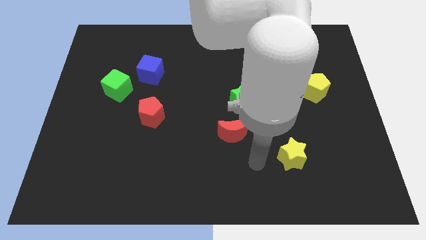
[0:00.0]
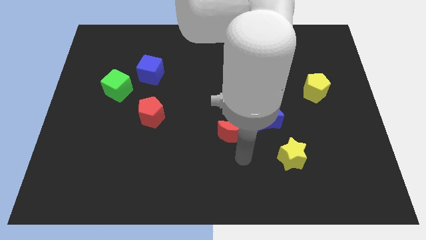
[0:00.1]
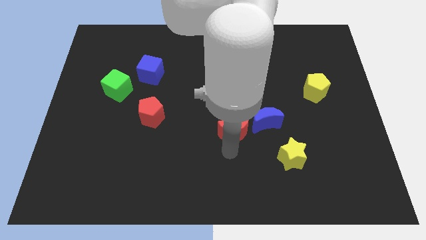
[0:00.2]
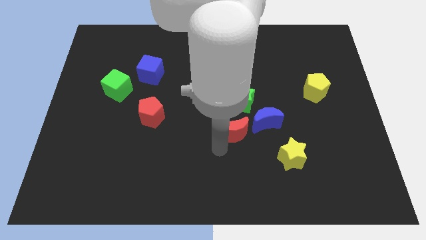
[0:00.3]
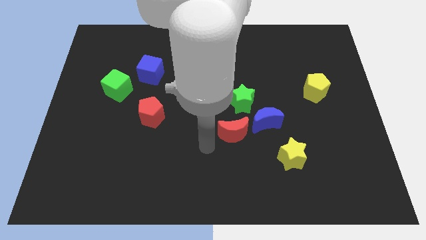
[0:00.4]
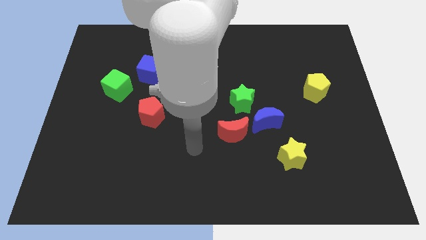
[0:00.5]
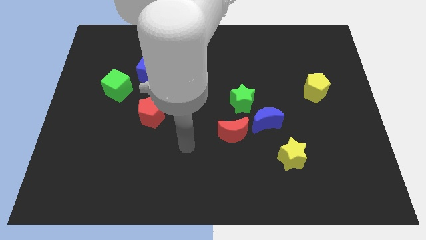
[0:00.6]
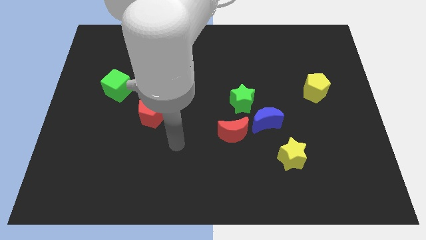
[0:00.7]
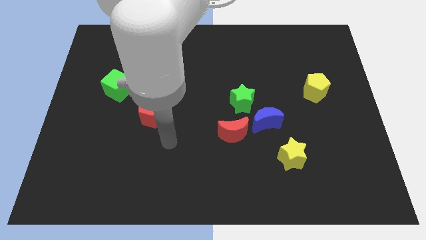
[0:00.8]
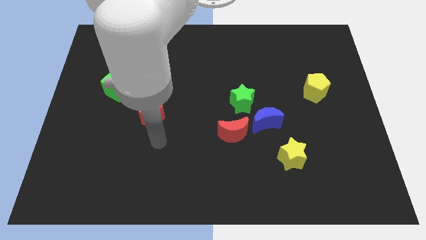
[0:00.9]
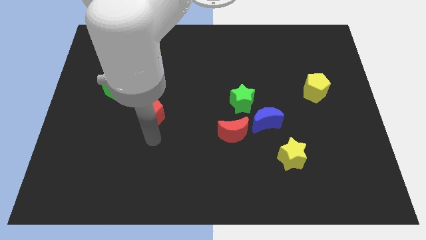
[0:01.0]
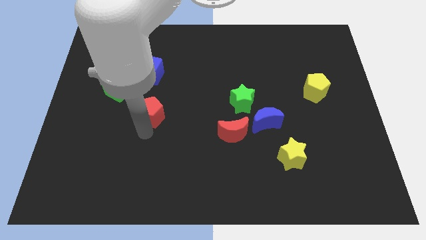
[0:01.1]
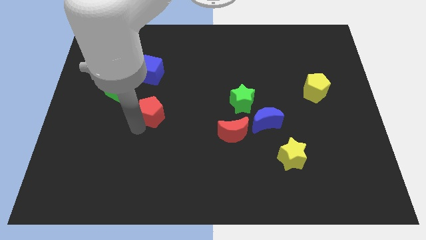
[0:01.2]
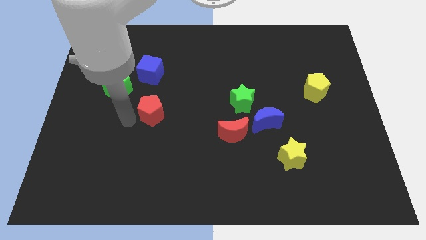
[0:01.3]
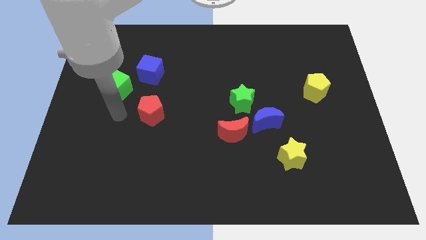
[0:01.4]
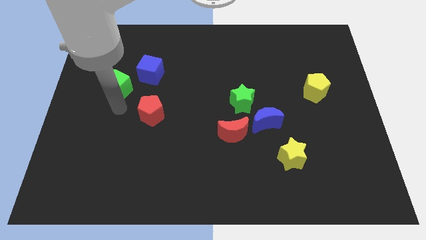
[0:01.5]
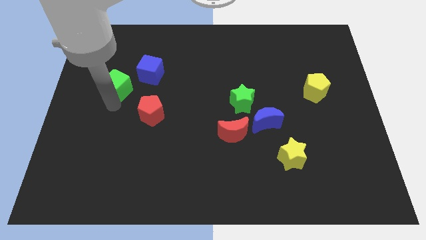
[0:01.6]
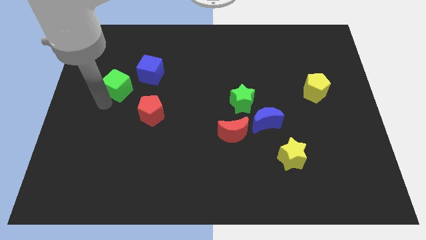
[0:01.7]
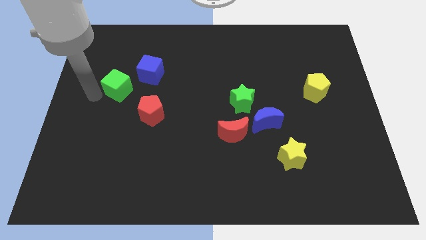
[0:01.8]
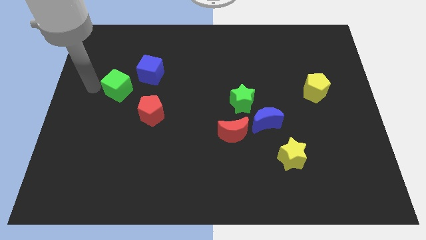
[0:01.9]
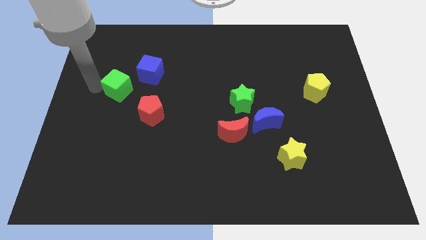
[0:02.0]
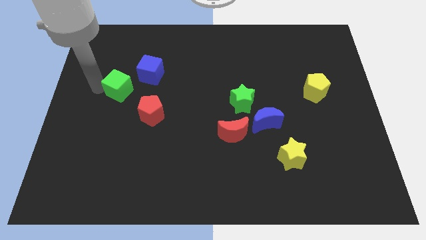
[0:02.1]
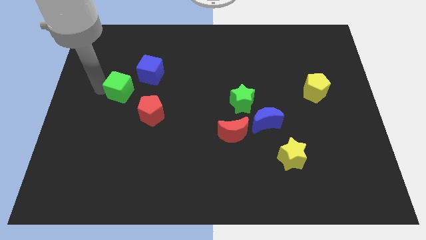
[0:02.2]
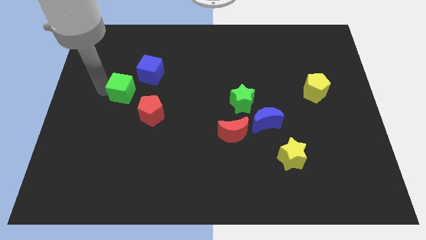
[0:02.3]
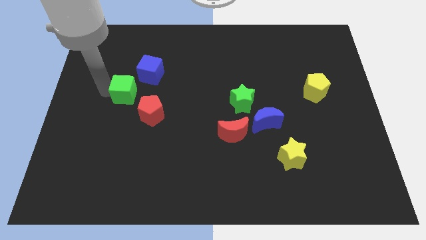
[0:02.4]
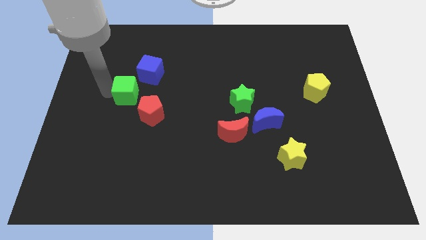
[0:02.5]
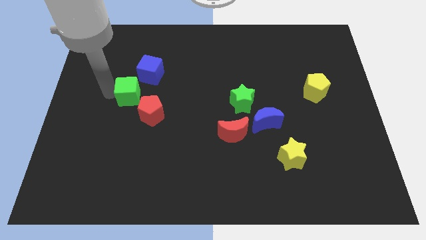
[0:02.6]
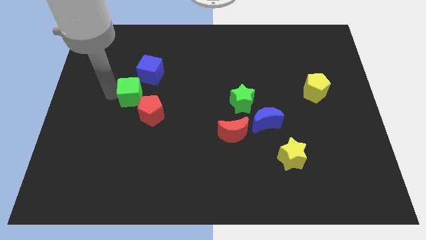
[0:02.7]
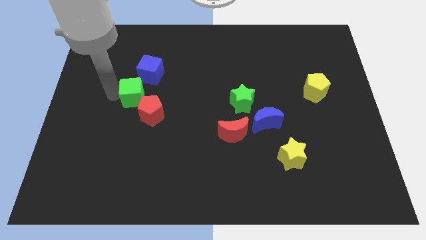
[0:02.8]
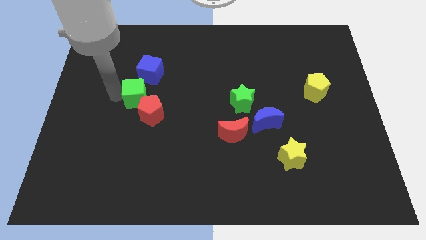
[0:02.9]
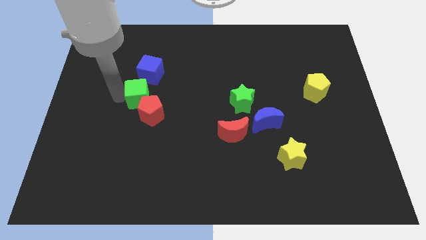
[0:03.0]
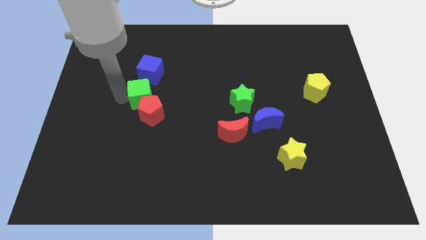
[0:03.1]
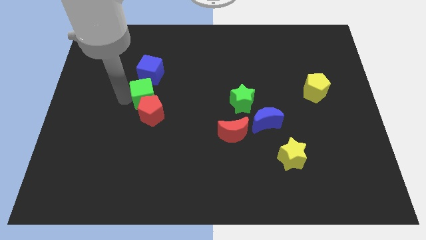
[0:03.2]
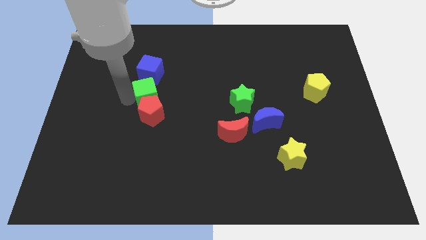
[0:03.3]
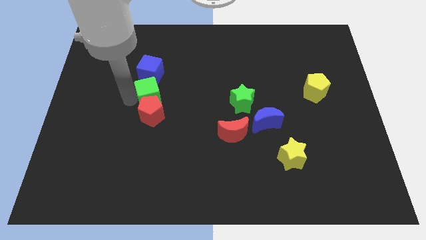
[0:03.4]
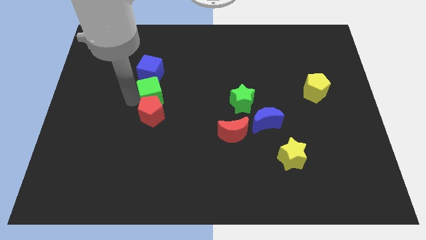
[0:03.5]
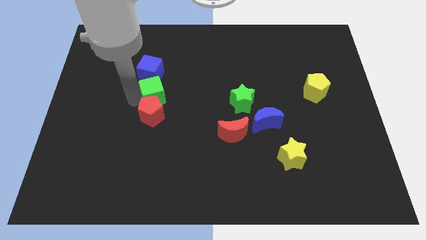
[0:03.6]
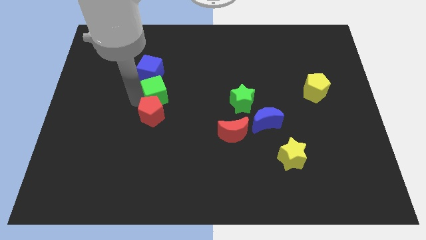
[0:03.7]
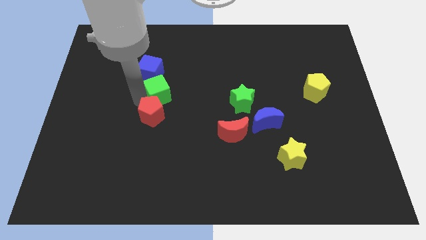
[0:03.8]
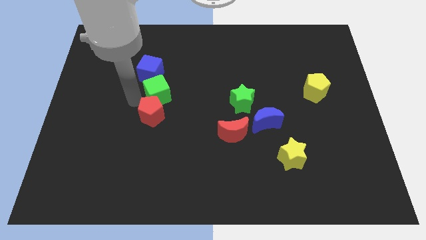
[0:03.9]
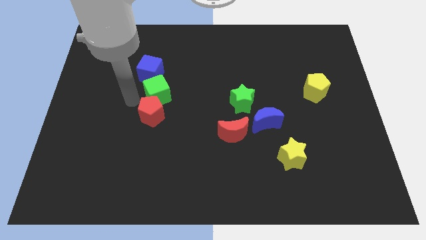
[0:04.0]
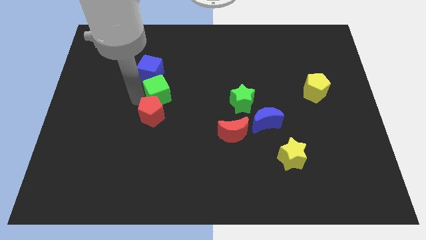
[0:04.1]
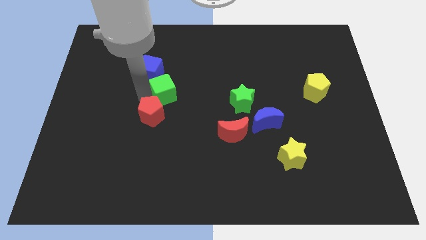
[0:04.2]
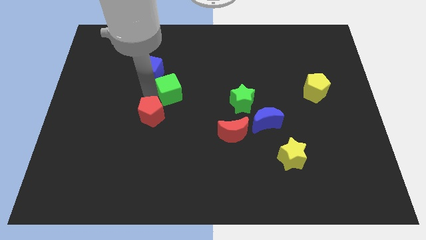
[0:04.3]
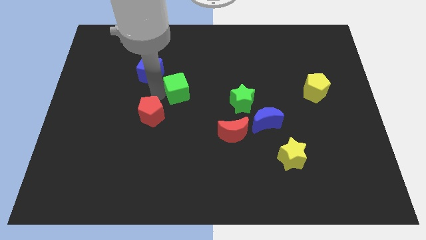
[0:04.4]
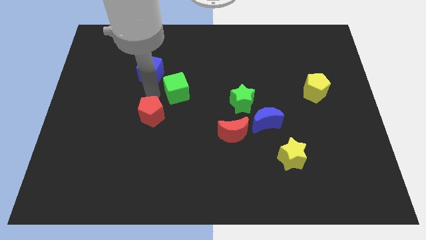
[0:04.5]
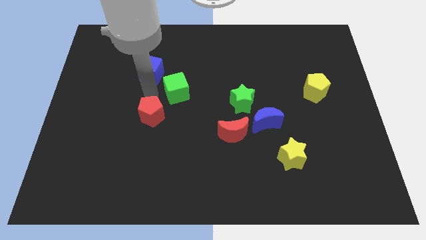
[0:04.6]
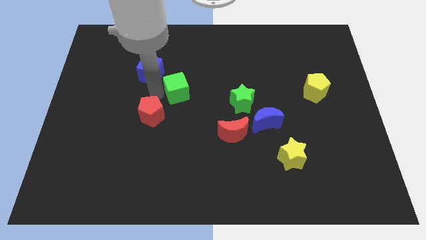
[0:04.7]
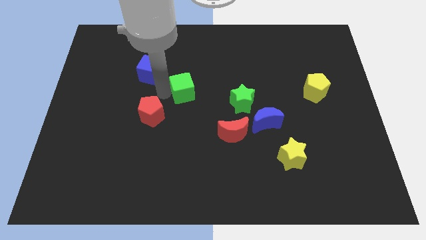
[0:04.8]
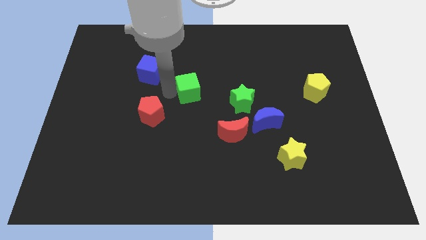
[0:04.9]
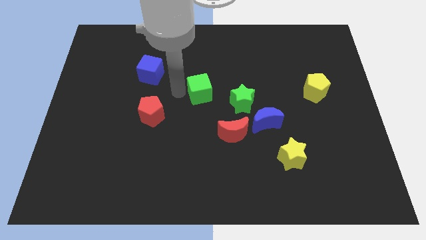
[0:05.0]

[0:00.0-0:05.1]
move the green cube right

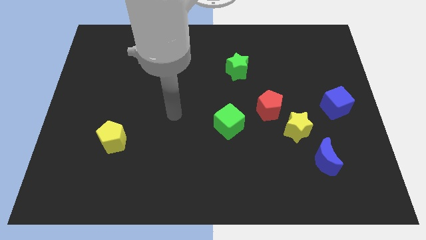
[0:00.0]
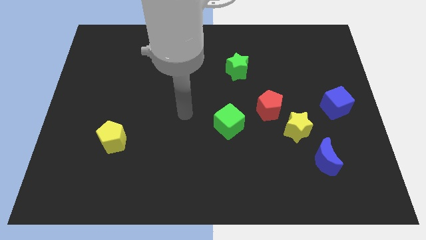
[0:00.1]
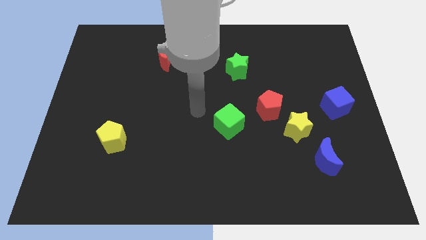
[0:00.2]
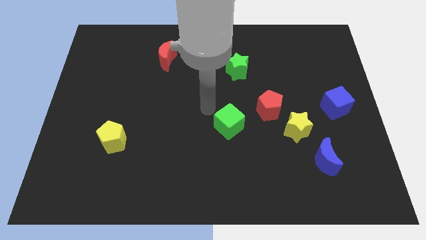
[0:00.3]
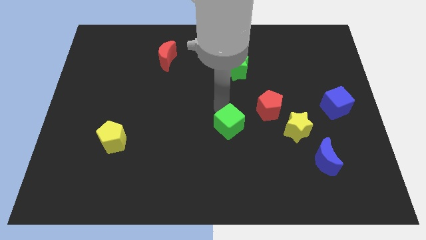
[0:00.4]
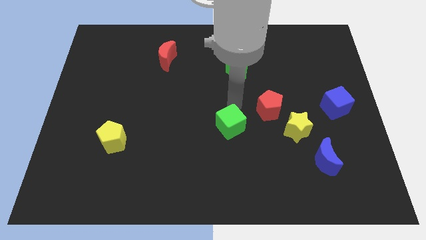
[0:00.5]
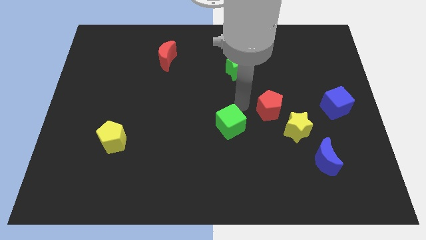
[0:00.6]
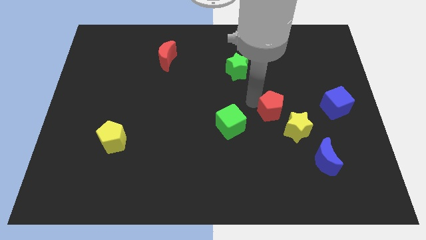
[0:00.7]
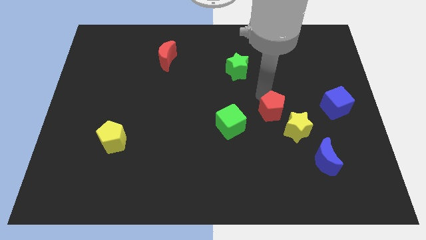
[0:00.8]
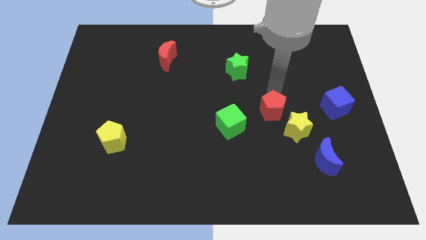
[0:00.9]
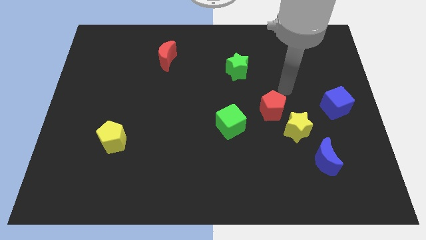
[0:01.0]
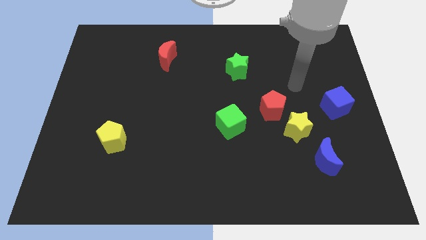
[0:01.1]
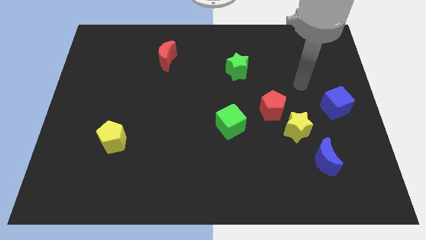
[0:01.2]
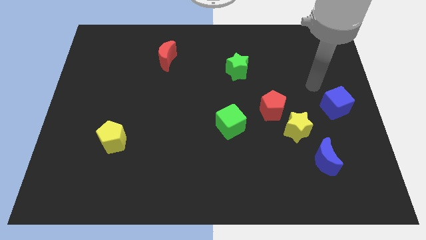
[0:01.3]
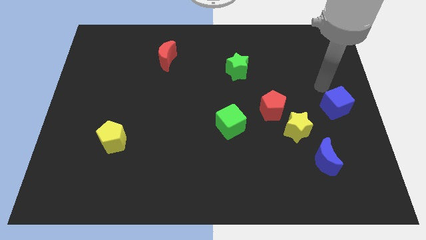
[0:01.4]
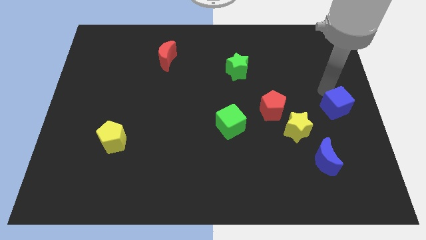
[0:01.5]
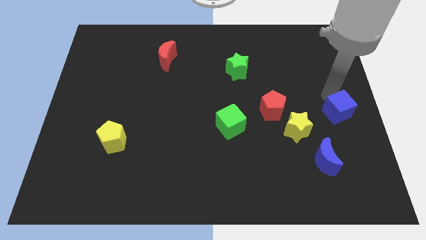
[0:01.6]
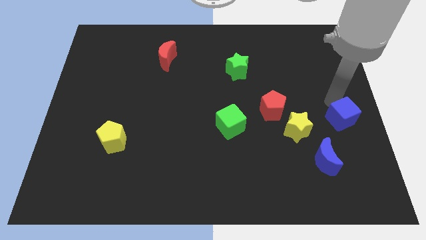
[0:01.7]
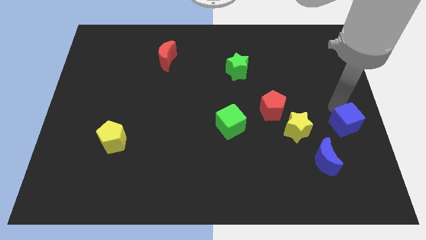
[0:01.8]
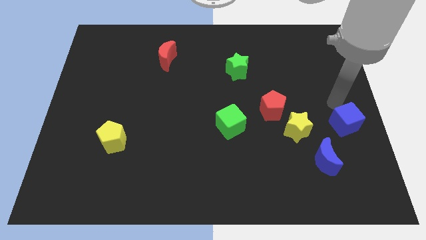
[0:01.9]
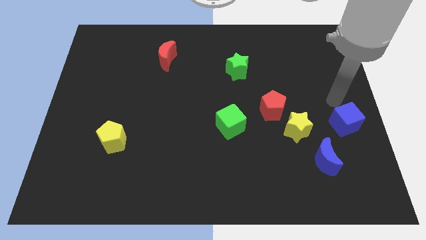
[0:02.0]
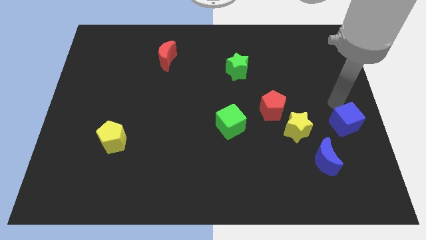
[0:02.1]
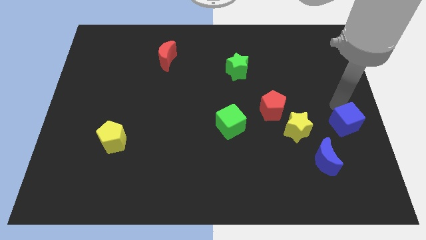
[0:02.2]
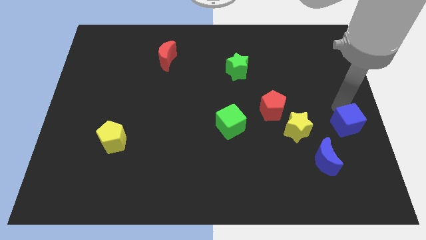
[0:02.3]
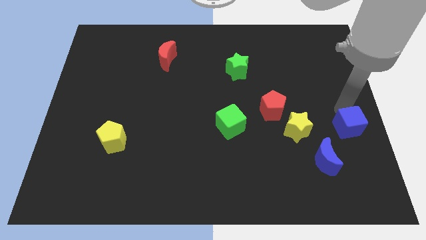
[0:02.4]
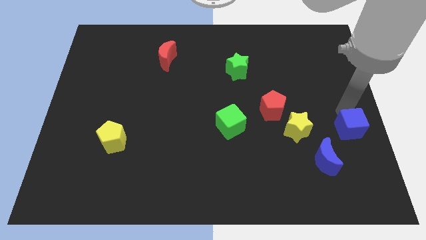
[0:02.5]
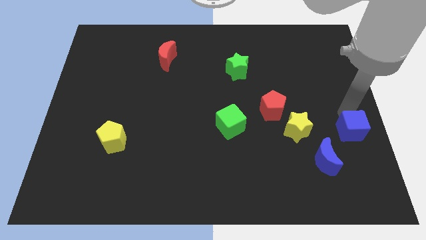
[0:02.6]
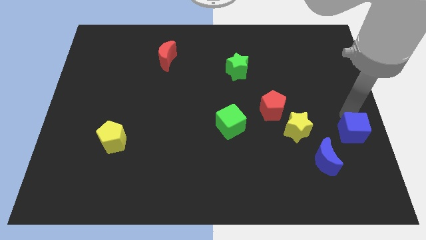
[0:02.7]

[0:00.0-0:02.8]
slightly move the blue cube down
